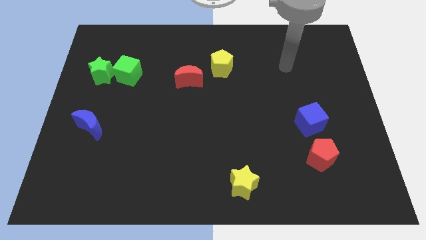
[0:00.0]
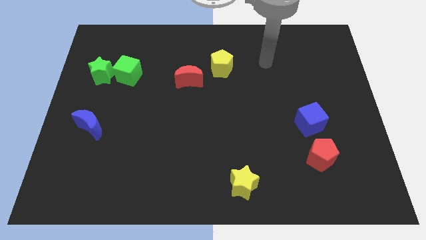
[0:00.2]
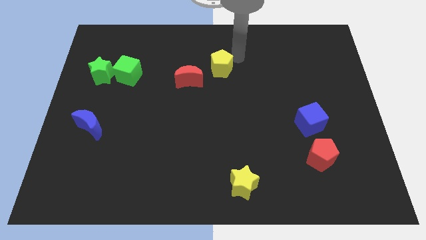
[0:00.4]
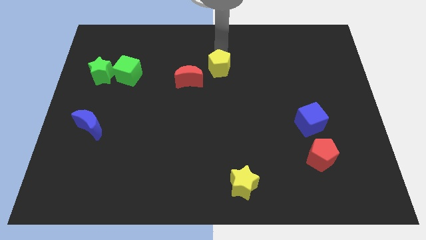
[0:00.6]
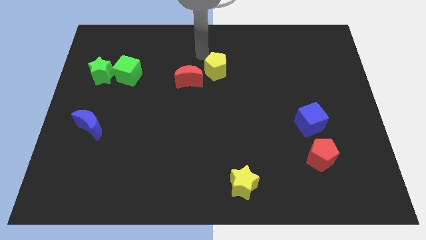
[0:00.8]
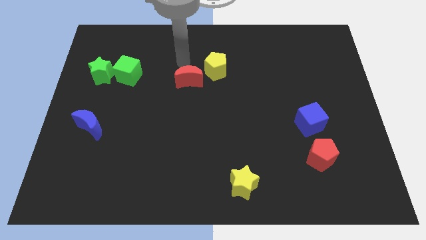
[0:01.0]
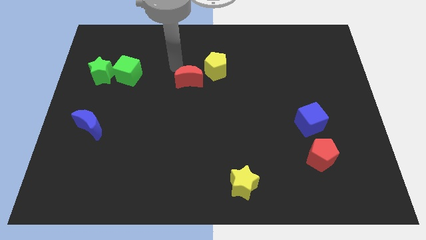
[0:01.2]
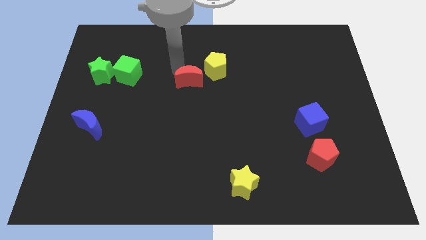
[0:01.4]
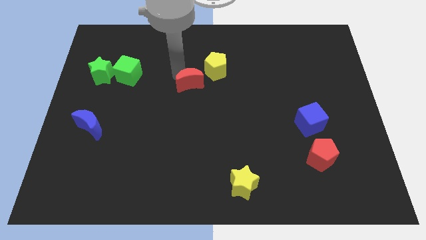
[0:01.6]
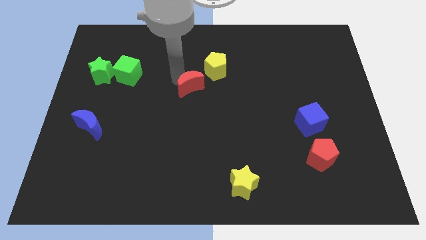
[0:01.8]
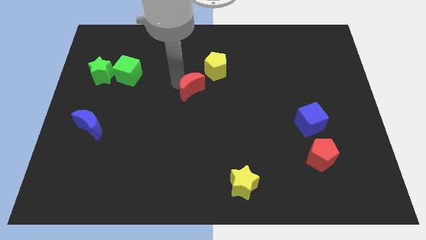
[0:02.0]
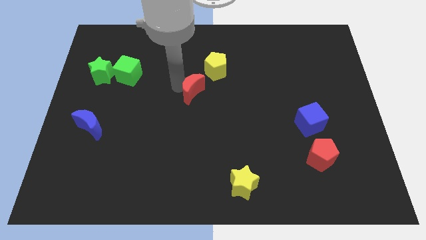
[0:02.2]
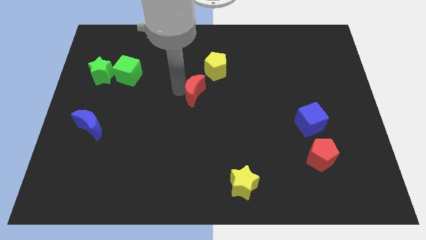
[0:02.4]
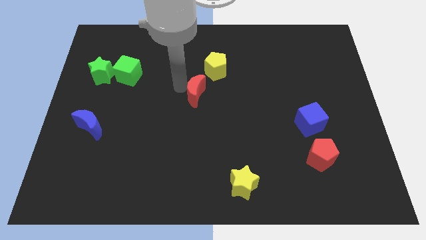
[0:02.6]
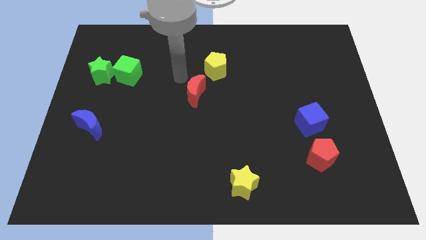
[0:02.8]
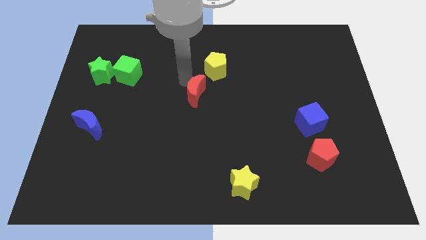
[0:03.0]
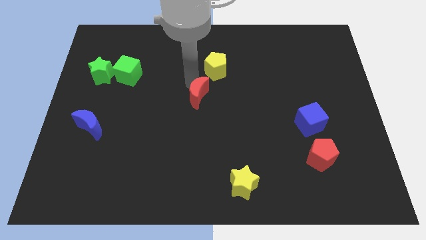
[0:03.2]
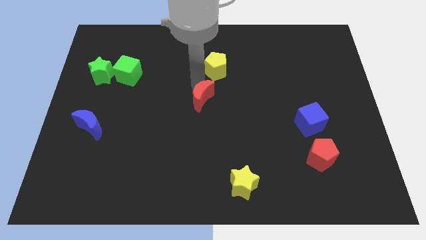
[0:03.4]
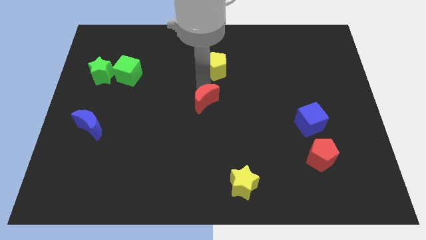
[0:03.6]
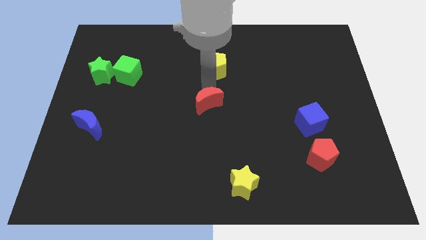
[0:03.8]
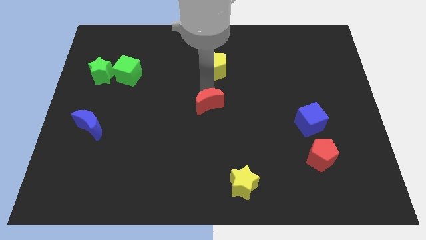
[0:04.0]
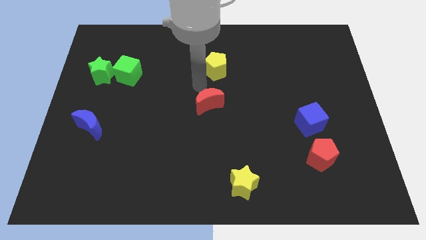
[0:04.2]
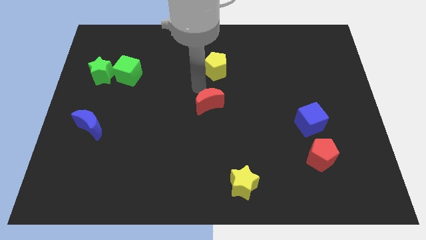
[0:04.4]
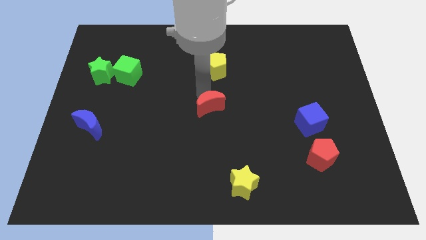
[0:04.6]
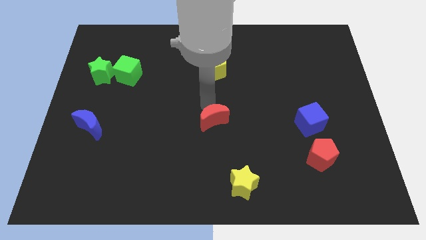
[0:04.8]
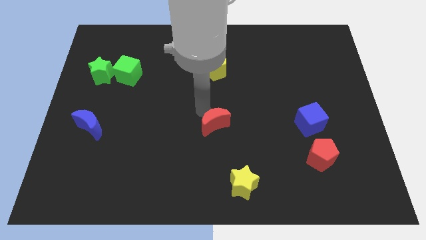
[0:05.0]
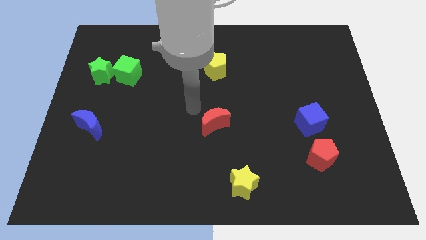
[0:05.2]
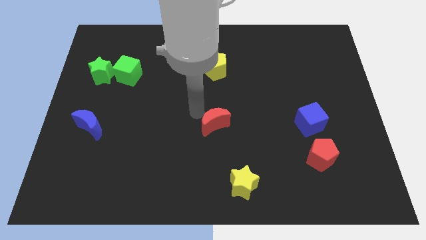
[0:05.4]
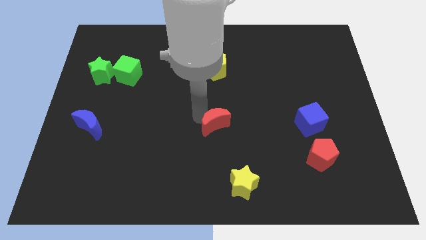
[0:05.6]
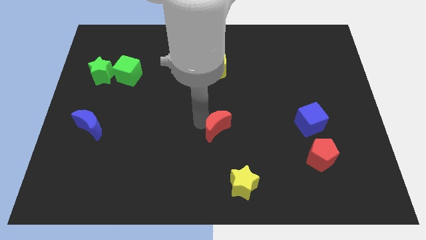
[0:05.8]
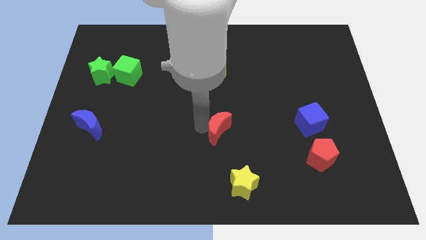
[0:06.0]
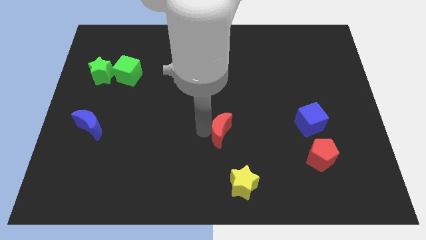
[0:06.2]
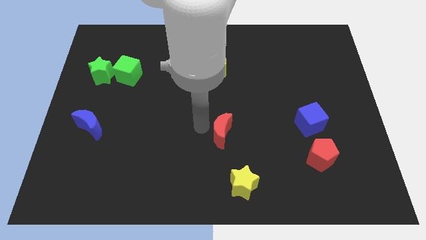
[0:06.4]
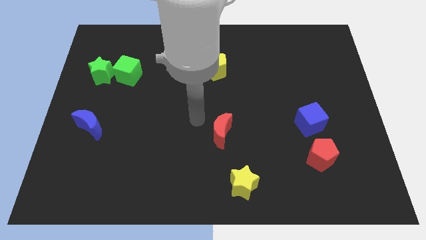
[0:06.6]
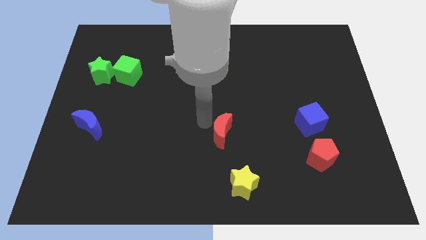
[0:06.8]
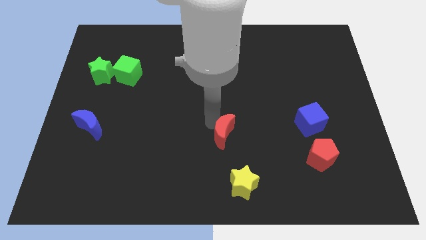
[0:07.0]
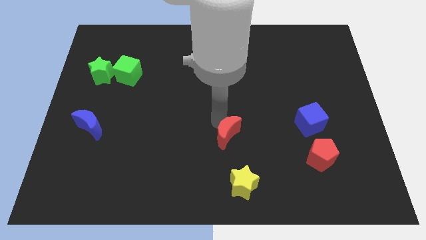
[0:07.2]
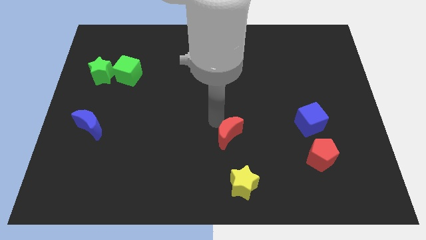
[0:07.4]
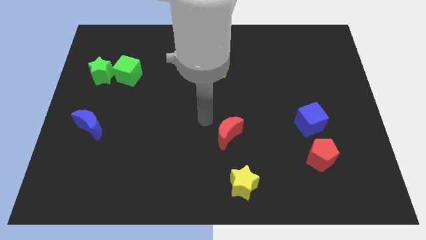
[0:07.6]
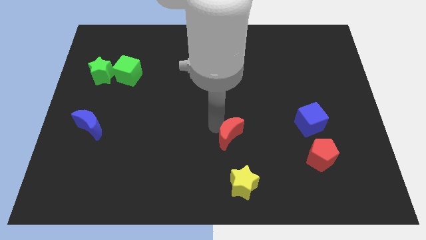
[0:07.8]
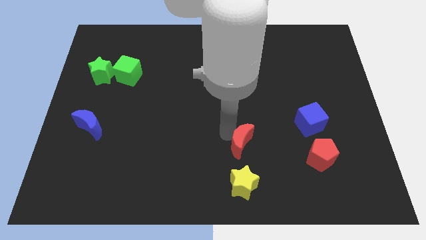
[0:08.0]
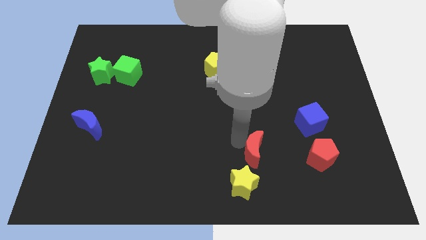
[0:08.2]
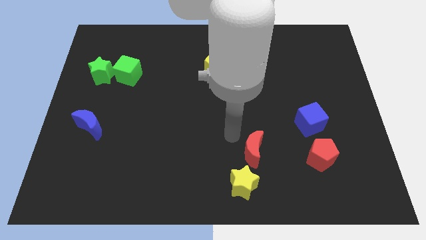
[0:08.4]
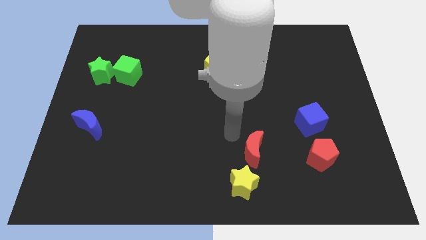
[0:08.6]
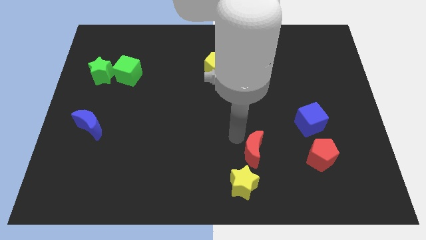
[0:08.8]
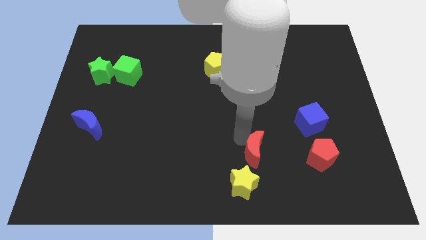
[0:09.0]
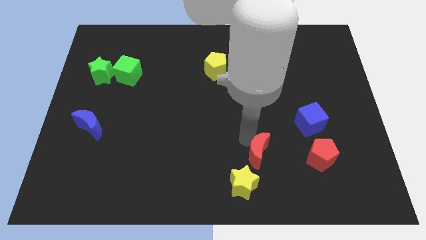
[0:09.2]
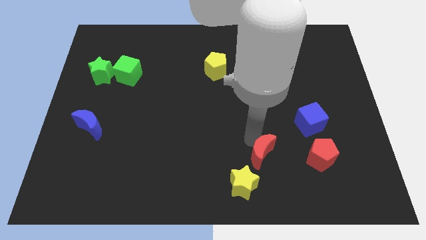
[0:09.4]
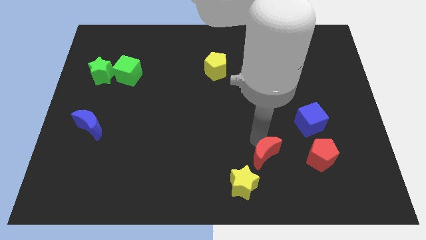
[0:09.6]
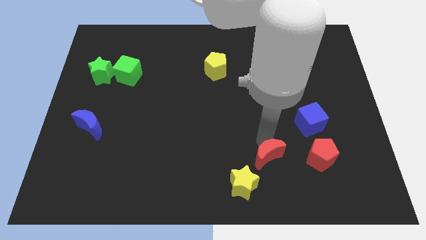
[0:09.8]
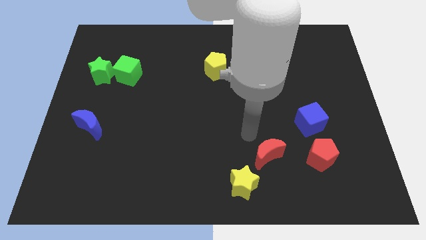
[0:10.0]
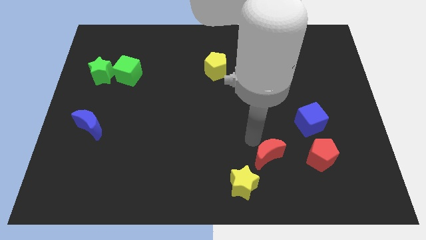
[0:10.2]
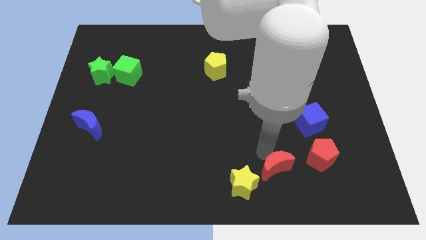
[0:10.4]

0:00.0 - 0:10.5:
push the red moon right of the yellow star

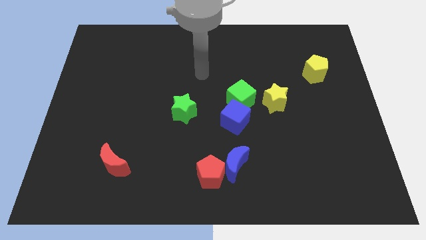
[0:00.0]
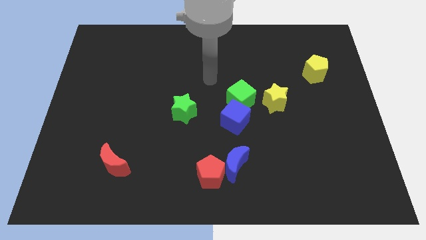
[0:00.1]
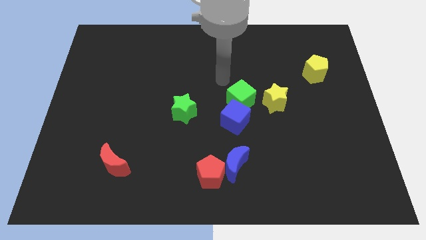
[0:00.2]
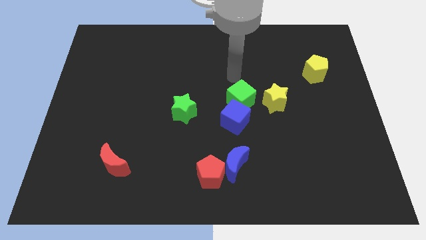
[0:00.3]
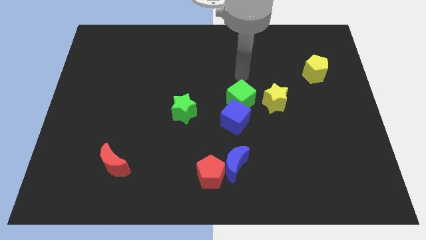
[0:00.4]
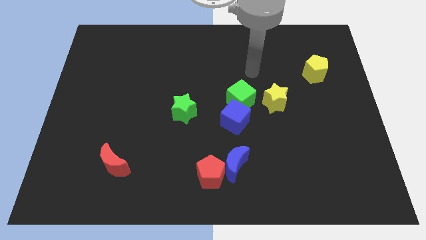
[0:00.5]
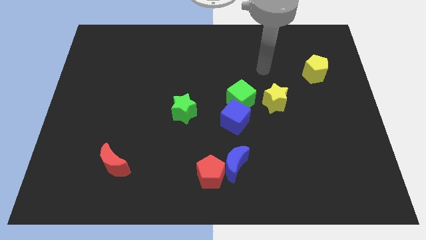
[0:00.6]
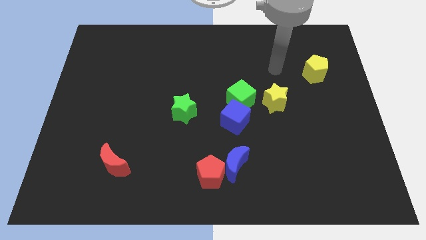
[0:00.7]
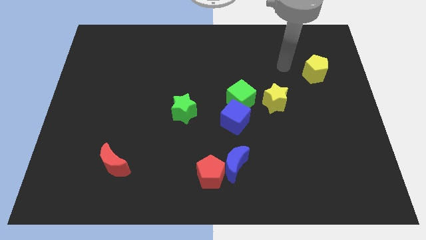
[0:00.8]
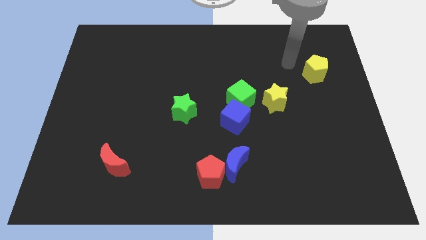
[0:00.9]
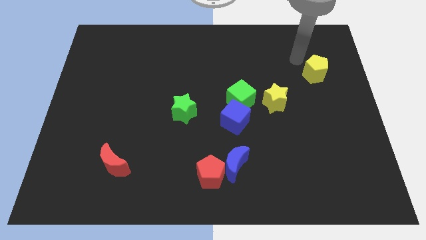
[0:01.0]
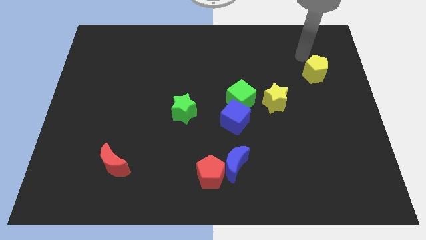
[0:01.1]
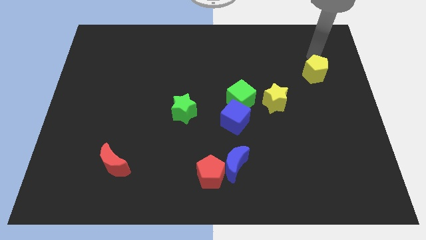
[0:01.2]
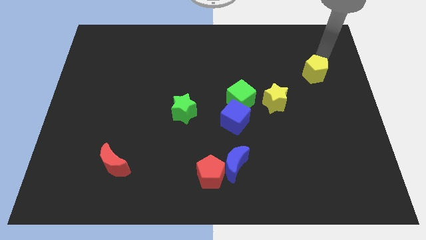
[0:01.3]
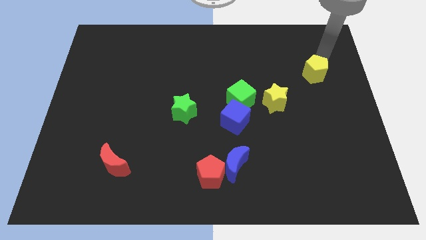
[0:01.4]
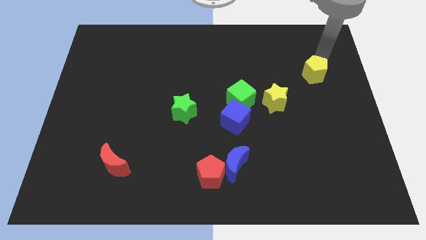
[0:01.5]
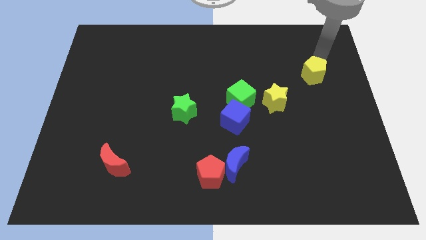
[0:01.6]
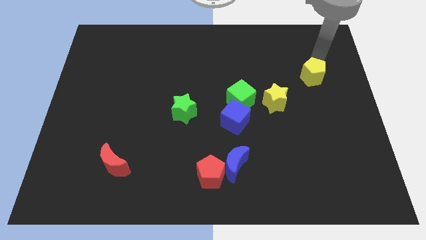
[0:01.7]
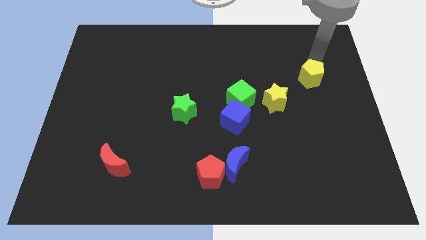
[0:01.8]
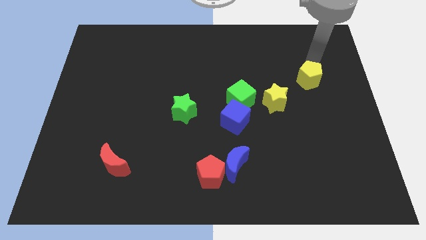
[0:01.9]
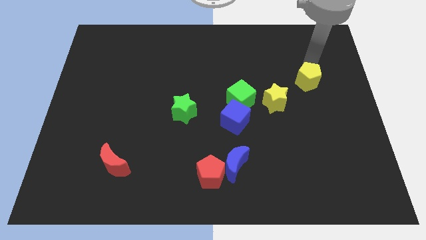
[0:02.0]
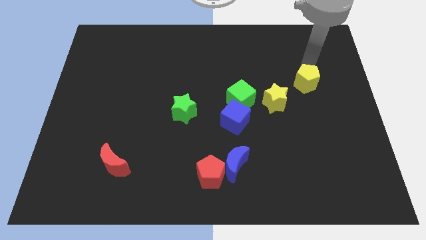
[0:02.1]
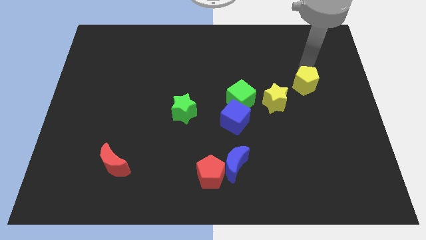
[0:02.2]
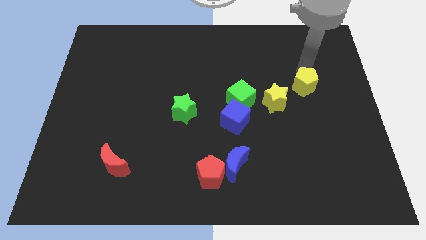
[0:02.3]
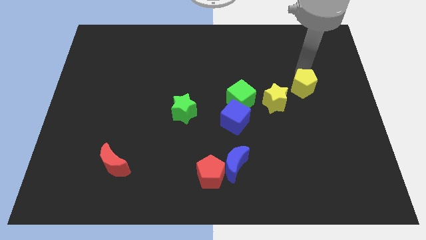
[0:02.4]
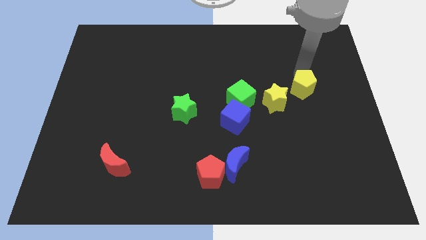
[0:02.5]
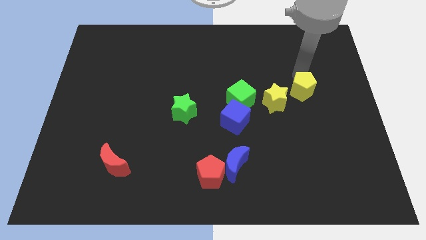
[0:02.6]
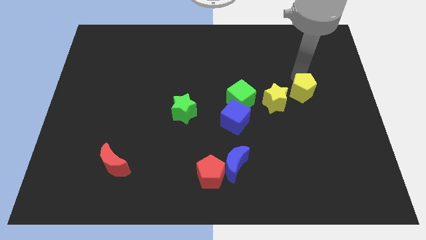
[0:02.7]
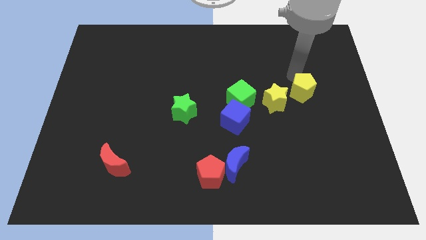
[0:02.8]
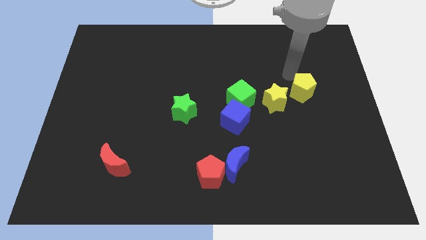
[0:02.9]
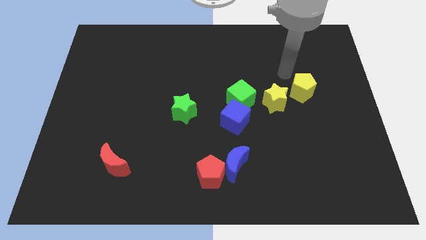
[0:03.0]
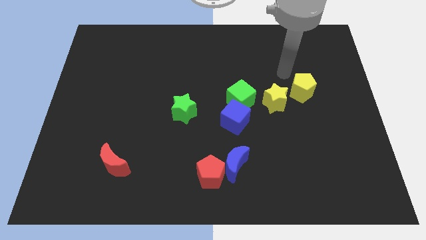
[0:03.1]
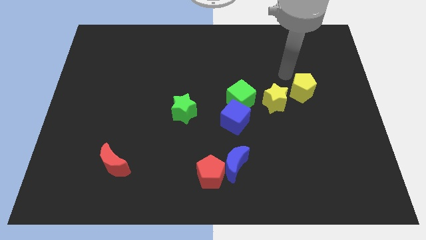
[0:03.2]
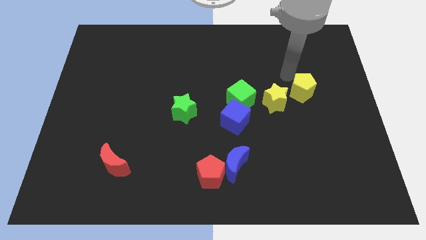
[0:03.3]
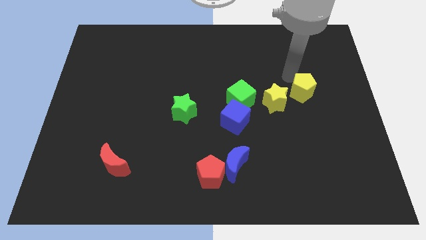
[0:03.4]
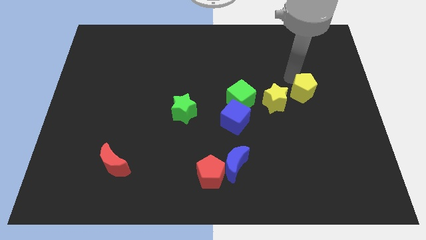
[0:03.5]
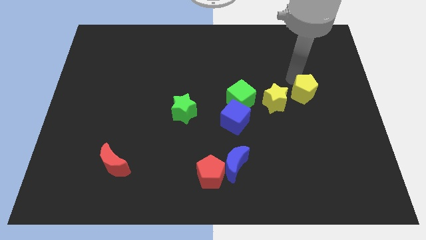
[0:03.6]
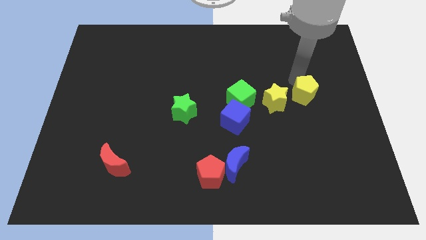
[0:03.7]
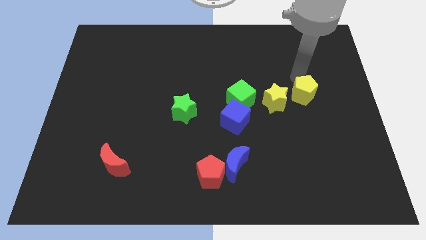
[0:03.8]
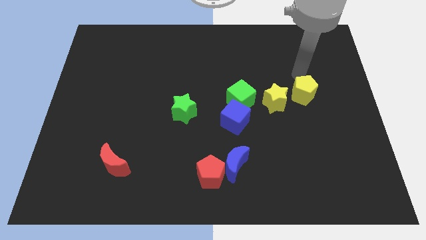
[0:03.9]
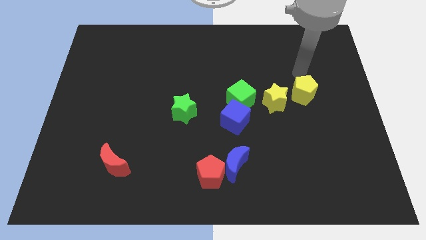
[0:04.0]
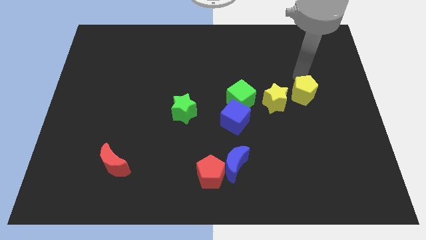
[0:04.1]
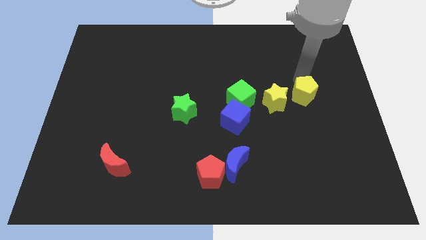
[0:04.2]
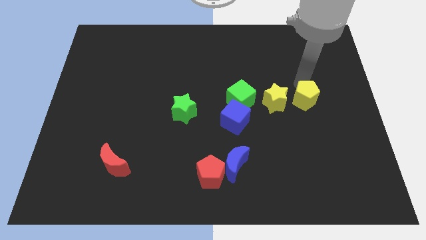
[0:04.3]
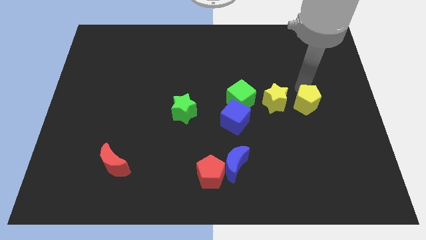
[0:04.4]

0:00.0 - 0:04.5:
move the yellow pentagon to the bottom right side of the yellow star
